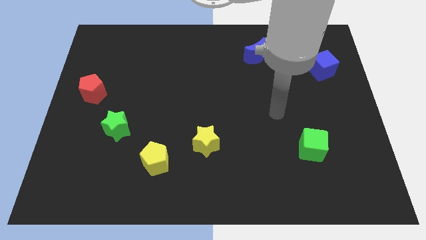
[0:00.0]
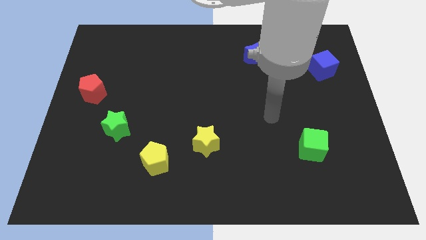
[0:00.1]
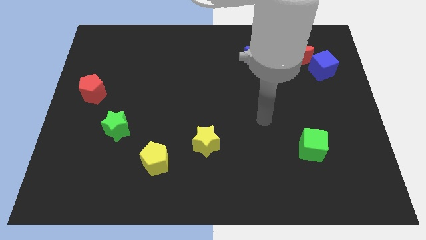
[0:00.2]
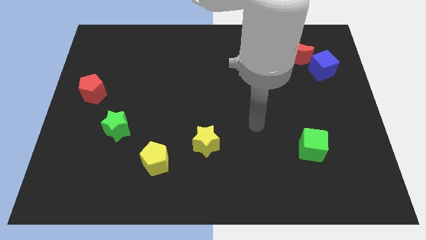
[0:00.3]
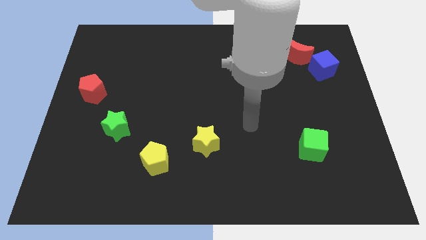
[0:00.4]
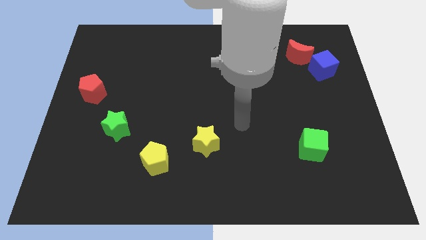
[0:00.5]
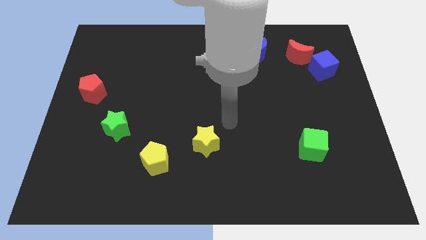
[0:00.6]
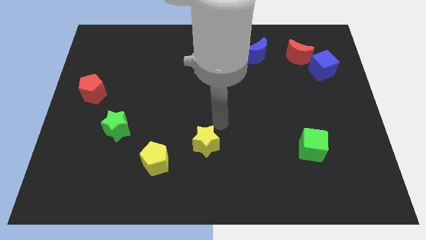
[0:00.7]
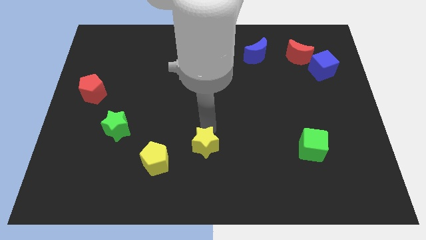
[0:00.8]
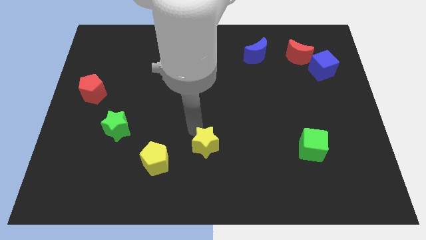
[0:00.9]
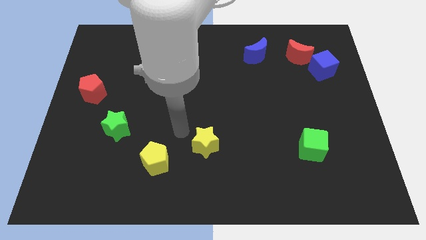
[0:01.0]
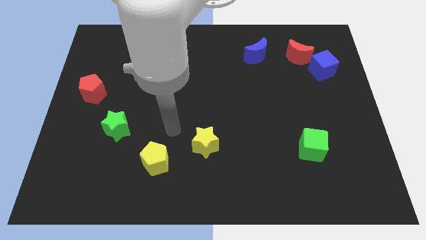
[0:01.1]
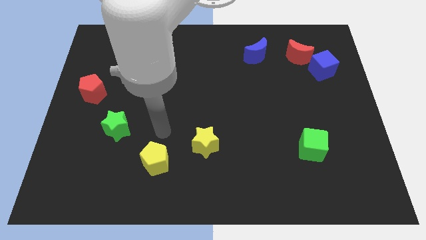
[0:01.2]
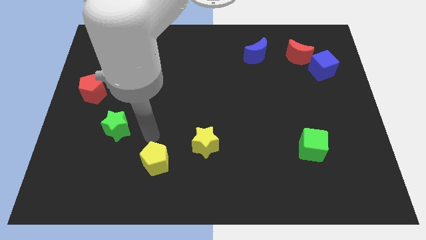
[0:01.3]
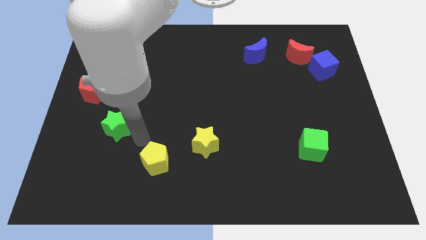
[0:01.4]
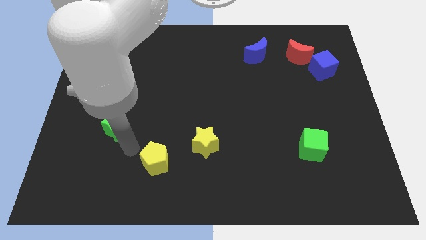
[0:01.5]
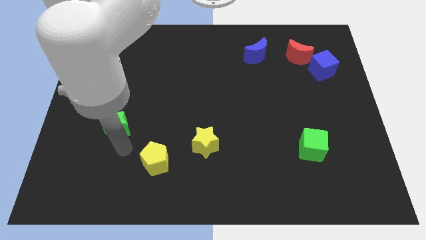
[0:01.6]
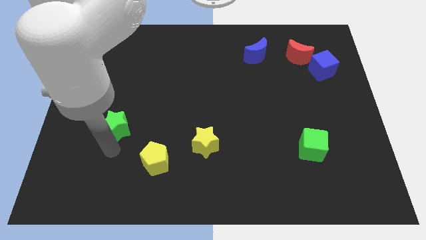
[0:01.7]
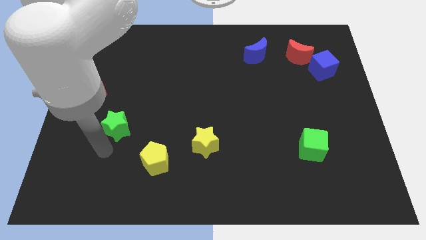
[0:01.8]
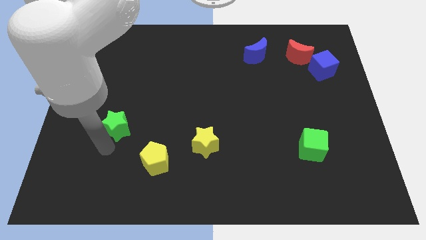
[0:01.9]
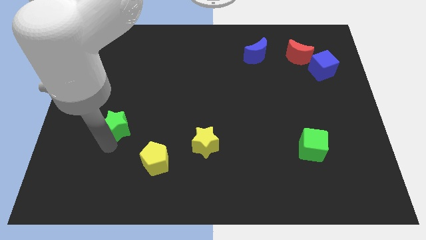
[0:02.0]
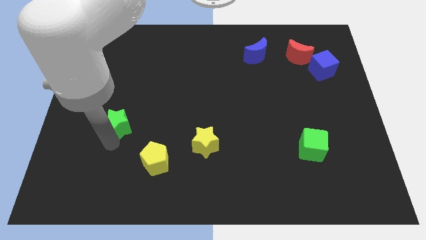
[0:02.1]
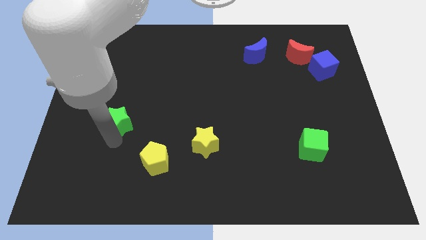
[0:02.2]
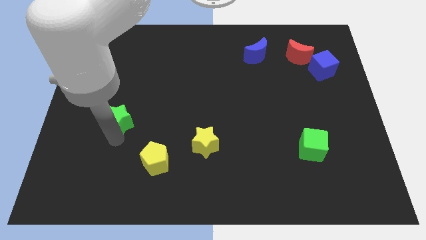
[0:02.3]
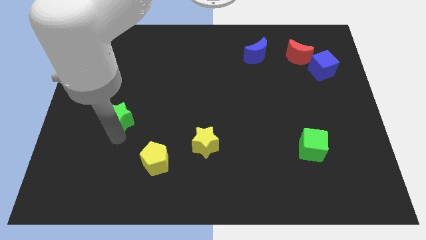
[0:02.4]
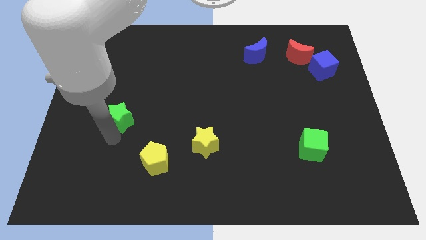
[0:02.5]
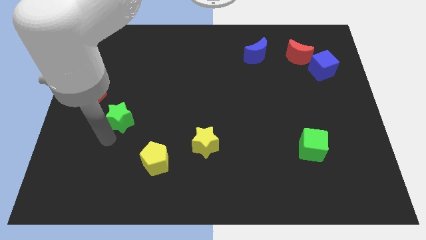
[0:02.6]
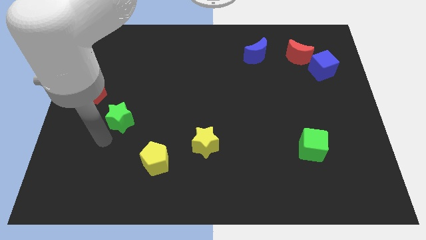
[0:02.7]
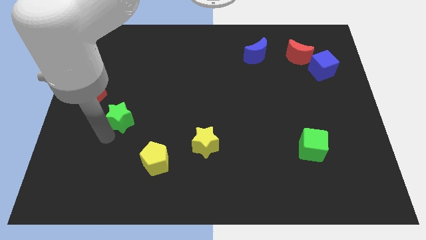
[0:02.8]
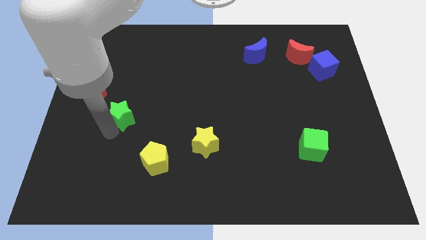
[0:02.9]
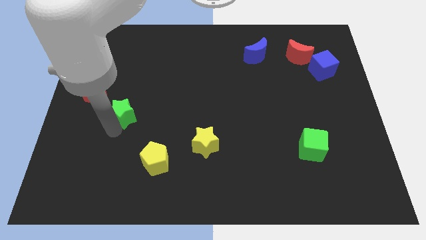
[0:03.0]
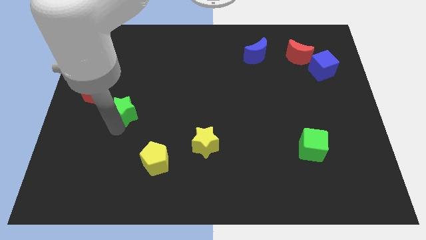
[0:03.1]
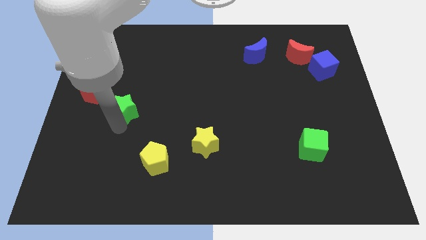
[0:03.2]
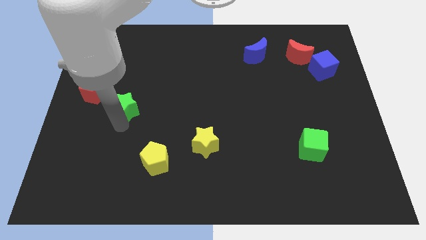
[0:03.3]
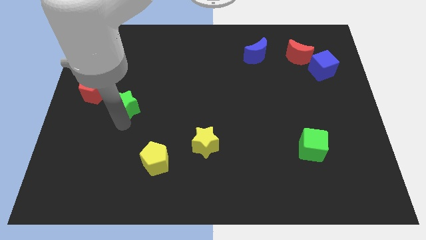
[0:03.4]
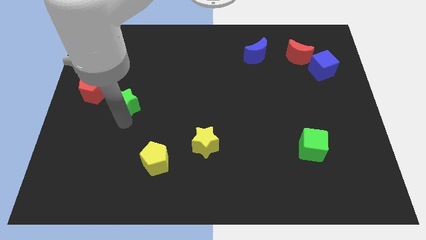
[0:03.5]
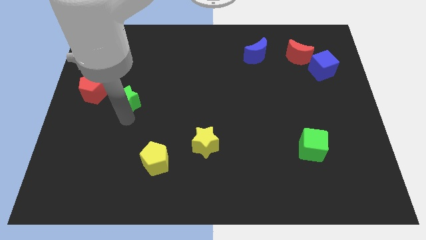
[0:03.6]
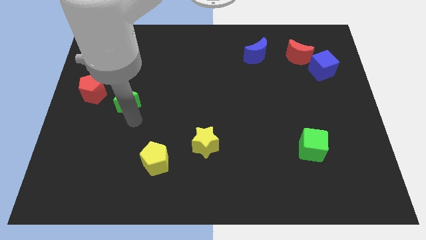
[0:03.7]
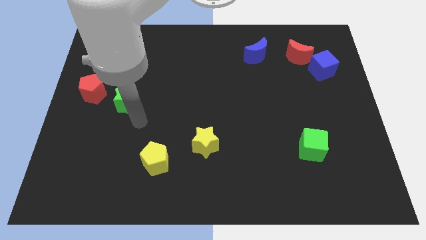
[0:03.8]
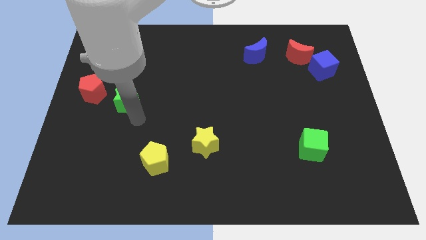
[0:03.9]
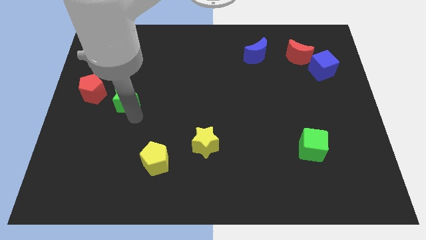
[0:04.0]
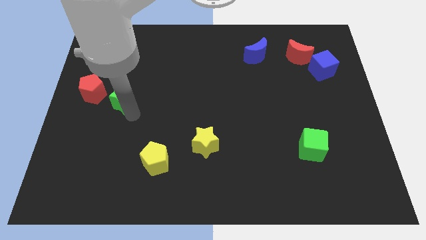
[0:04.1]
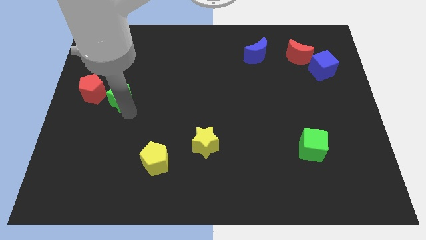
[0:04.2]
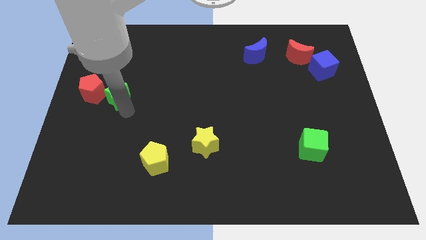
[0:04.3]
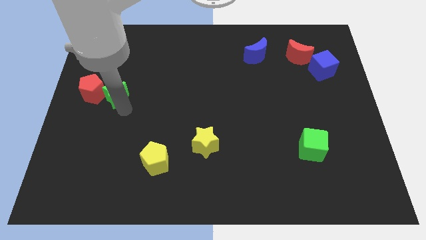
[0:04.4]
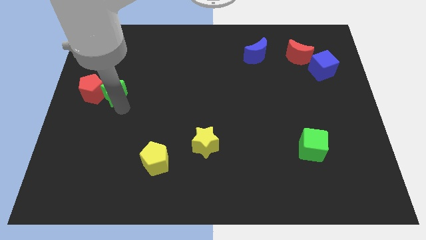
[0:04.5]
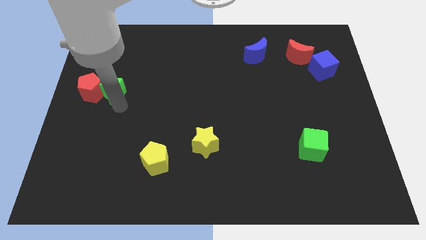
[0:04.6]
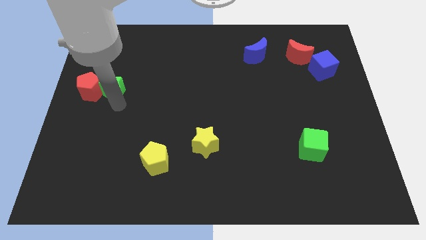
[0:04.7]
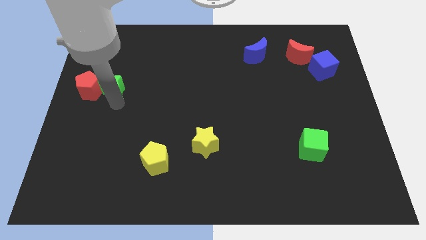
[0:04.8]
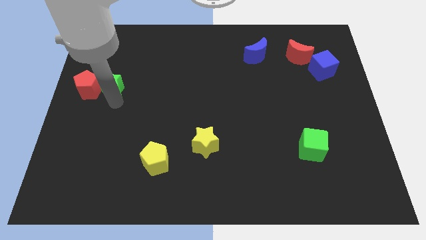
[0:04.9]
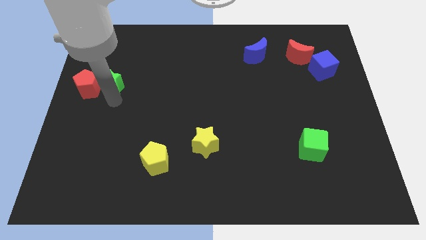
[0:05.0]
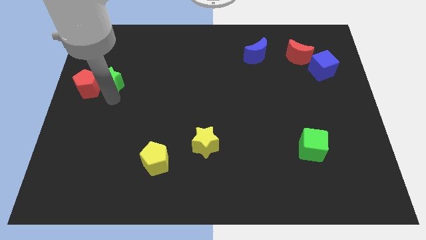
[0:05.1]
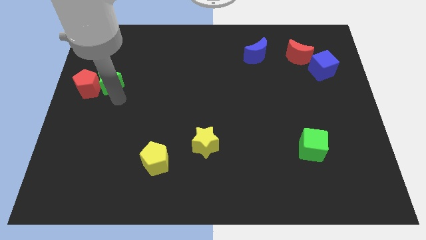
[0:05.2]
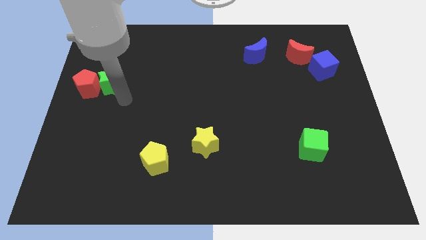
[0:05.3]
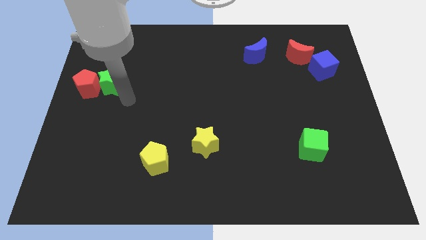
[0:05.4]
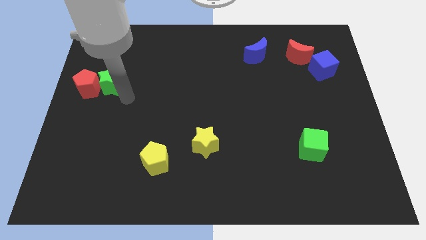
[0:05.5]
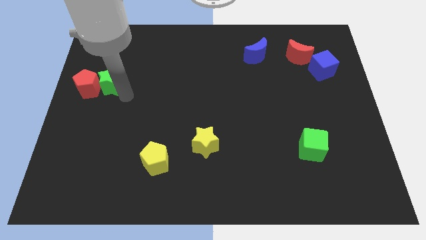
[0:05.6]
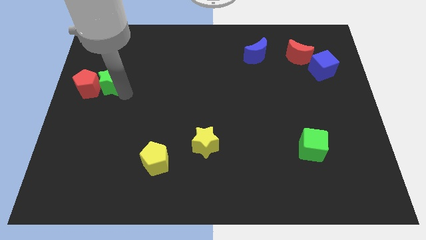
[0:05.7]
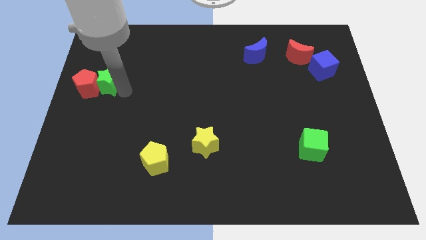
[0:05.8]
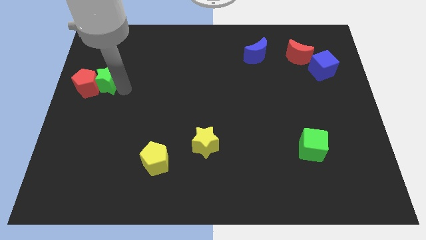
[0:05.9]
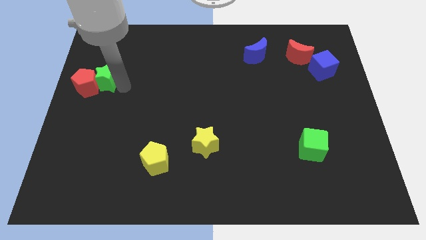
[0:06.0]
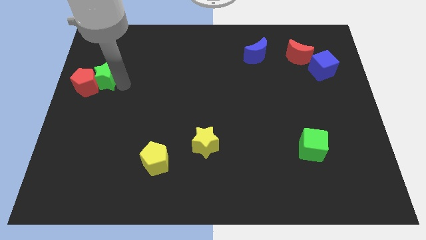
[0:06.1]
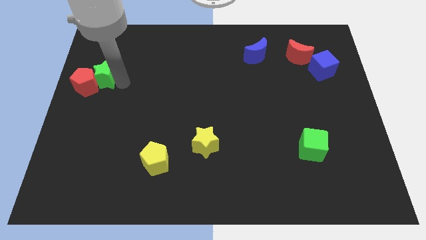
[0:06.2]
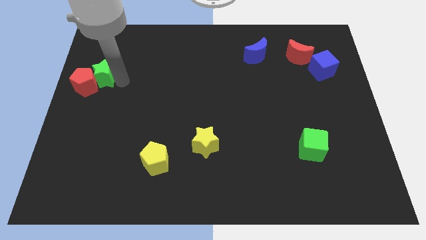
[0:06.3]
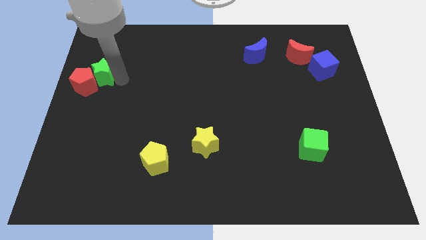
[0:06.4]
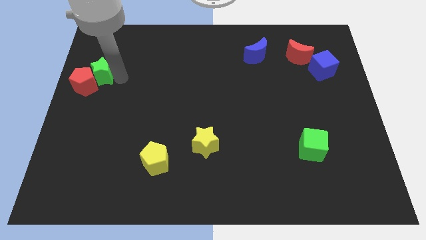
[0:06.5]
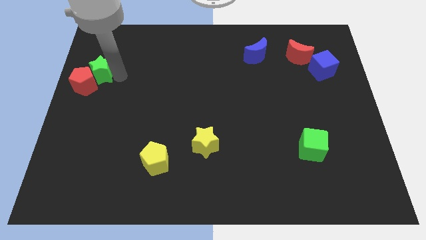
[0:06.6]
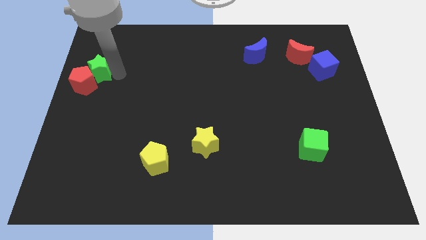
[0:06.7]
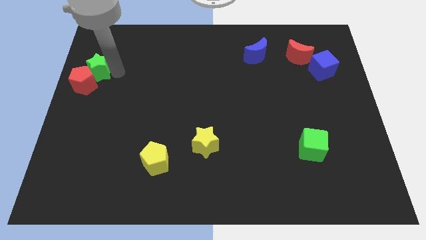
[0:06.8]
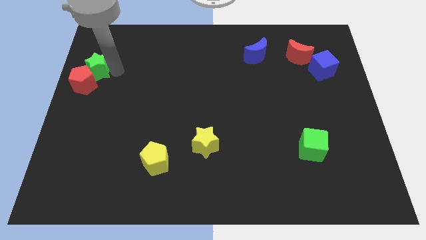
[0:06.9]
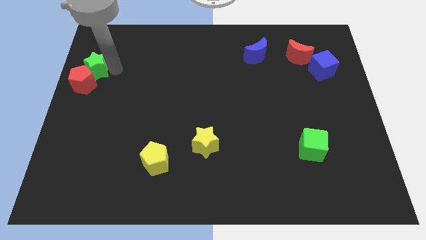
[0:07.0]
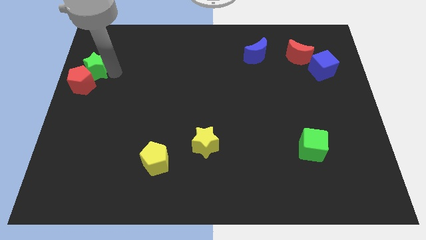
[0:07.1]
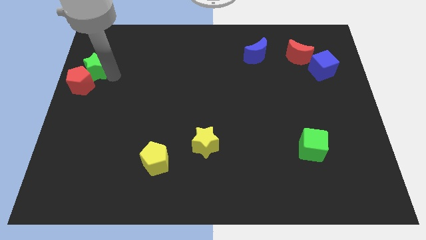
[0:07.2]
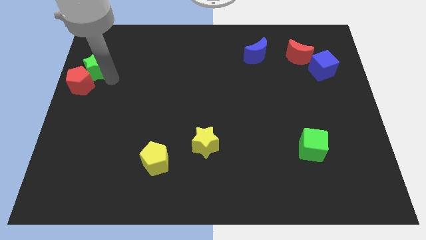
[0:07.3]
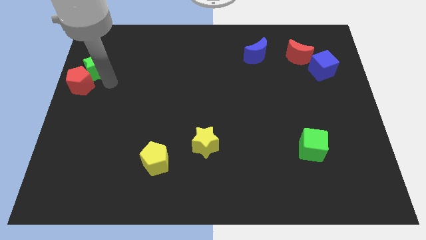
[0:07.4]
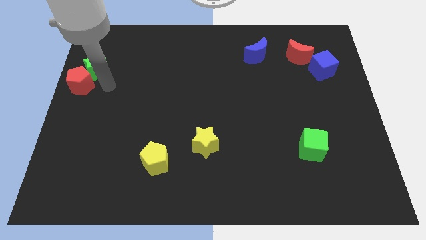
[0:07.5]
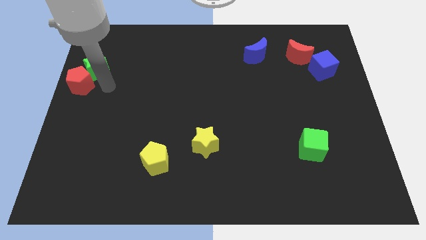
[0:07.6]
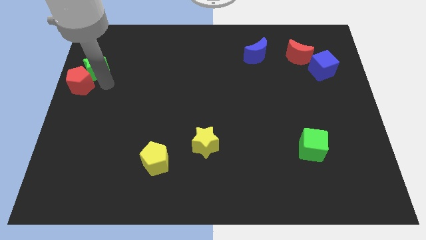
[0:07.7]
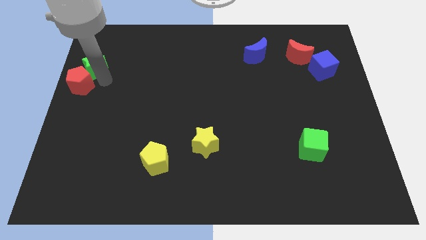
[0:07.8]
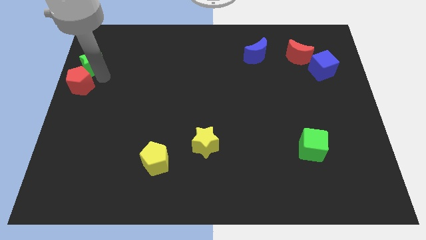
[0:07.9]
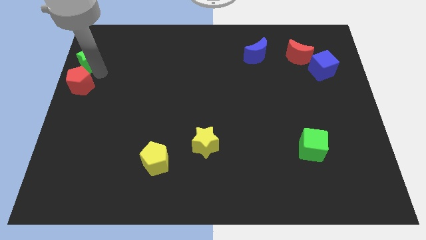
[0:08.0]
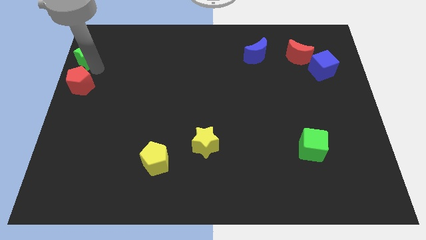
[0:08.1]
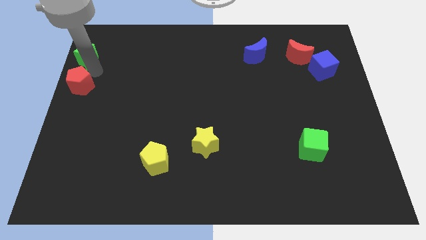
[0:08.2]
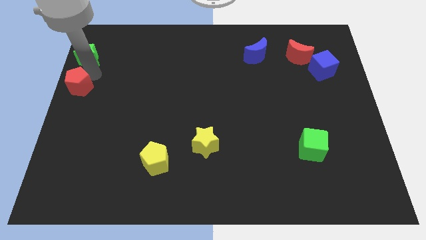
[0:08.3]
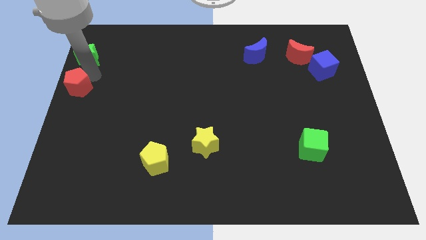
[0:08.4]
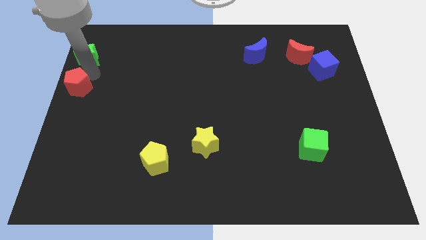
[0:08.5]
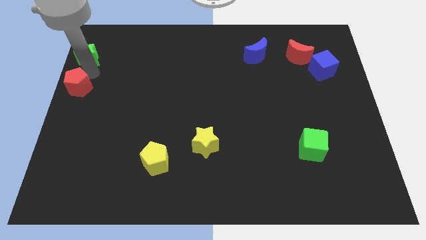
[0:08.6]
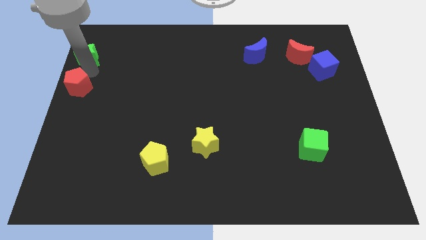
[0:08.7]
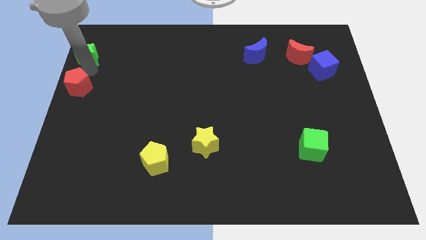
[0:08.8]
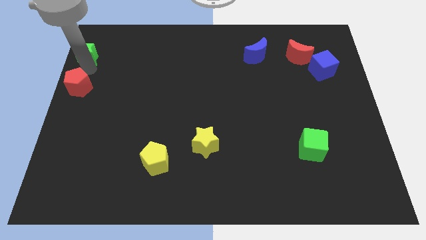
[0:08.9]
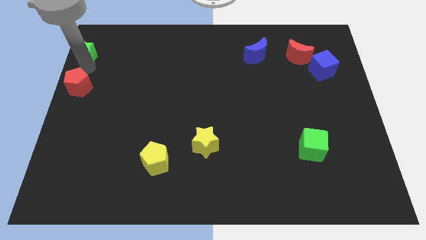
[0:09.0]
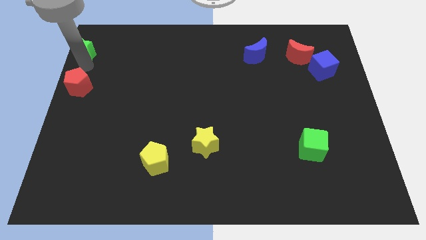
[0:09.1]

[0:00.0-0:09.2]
move the green star to the upper left corner
